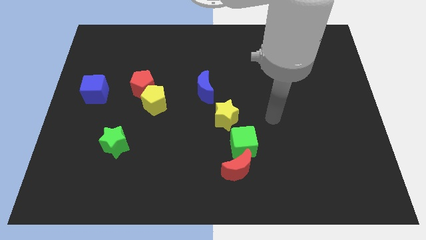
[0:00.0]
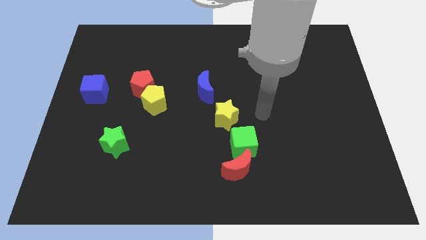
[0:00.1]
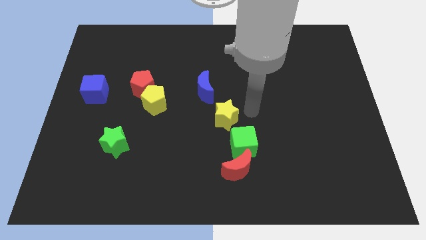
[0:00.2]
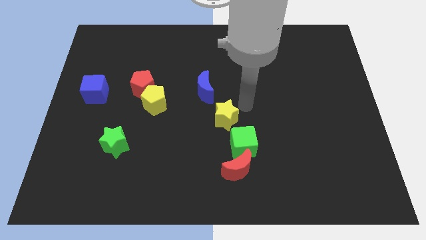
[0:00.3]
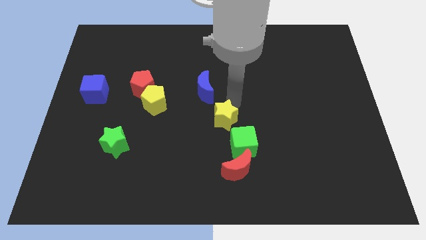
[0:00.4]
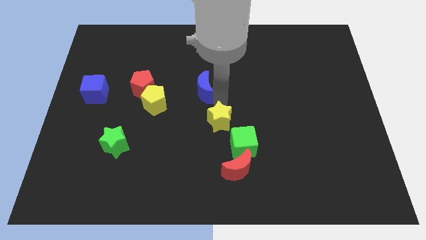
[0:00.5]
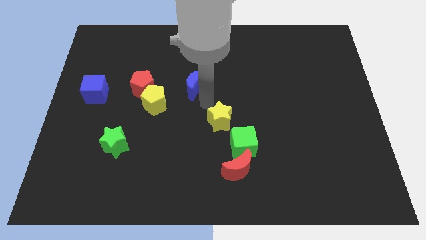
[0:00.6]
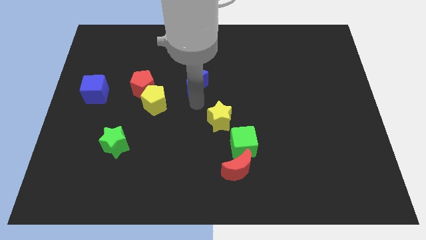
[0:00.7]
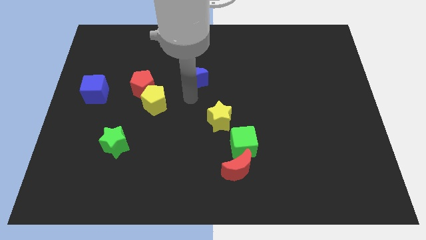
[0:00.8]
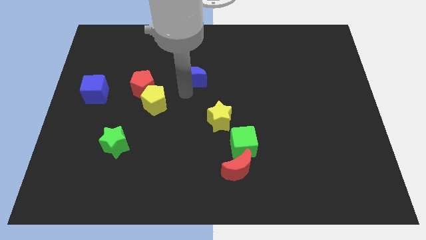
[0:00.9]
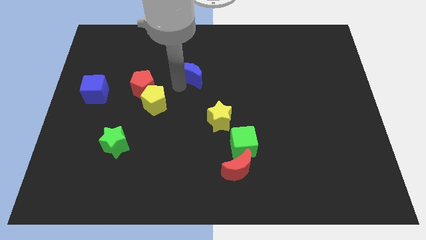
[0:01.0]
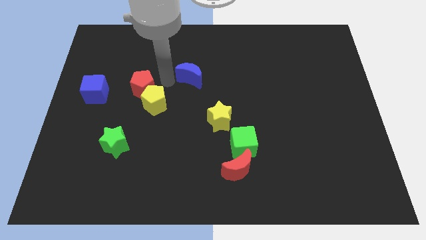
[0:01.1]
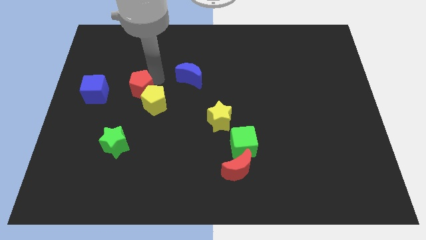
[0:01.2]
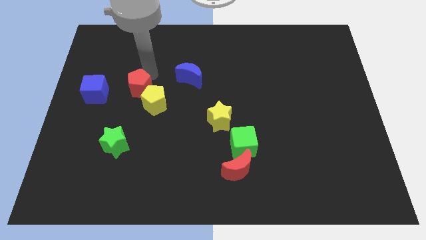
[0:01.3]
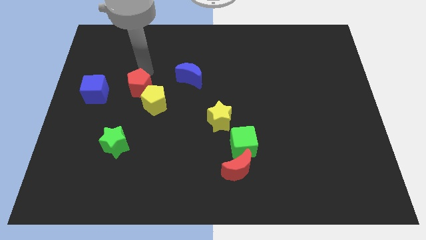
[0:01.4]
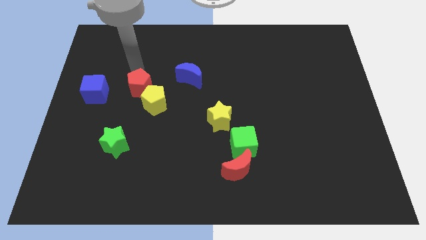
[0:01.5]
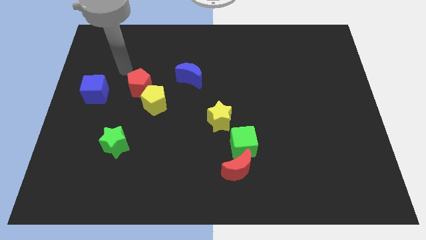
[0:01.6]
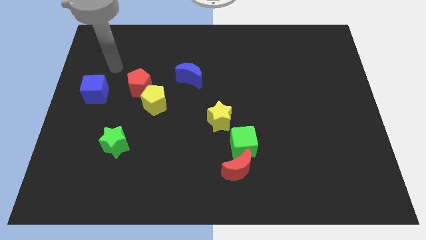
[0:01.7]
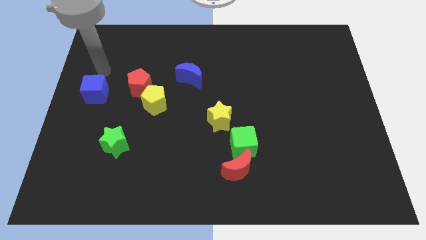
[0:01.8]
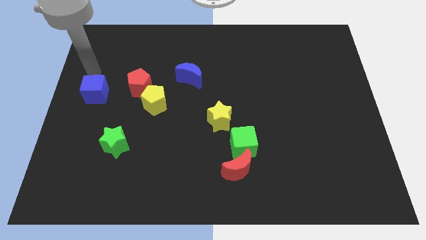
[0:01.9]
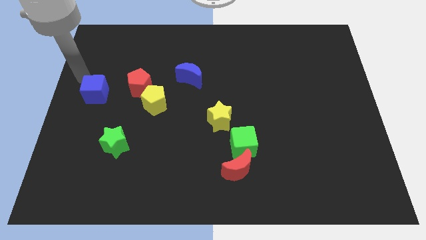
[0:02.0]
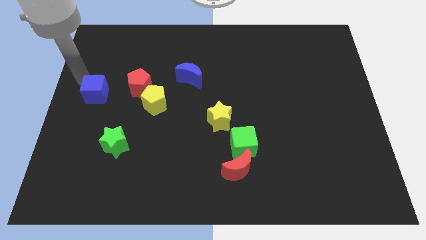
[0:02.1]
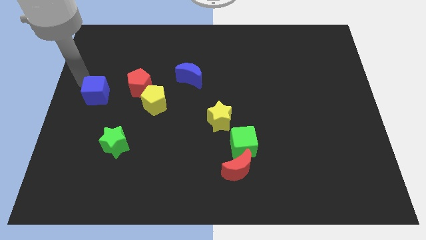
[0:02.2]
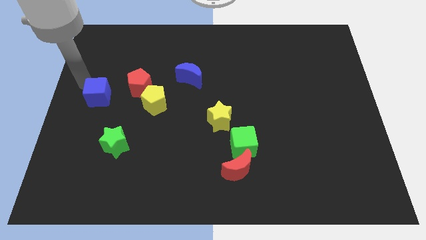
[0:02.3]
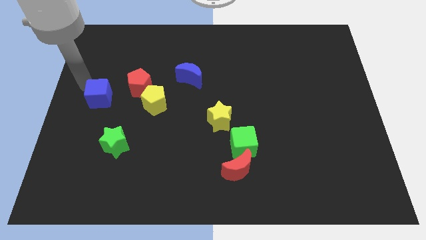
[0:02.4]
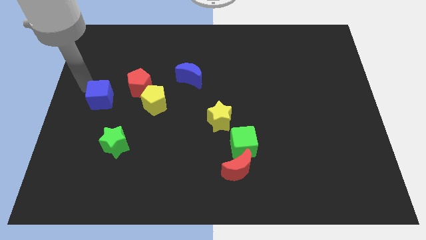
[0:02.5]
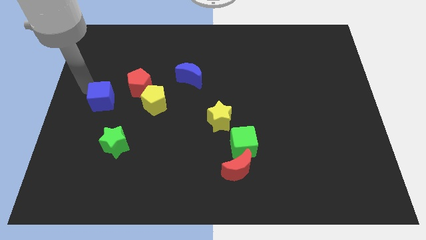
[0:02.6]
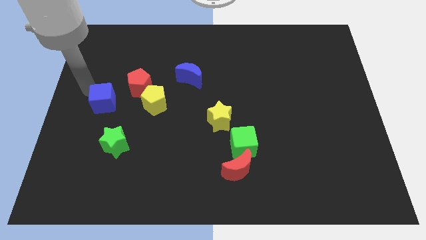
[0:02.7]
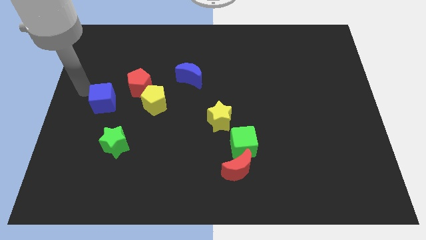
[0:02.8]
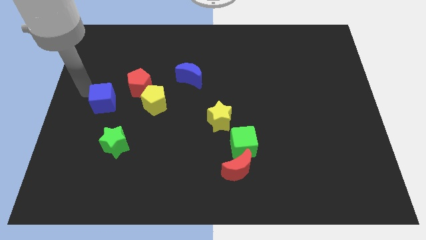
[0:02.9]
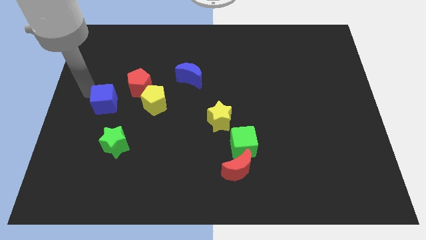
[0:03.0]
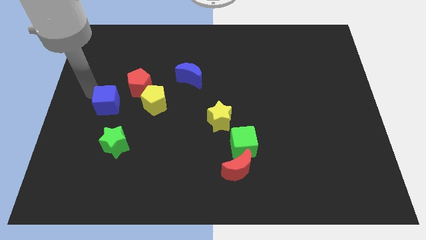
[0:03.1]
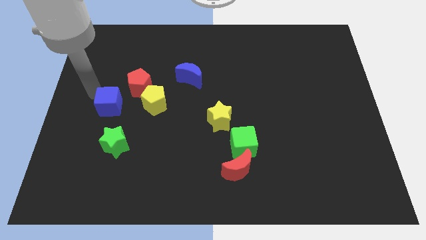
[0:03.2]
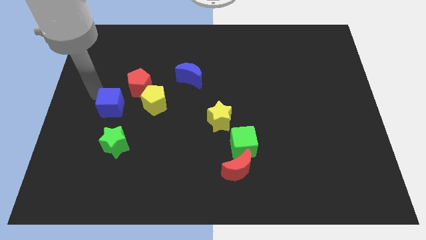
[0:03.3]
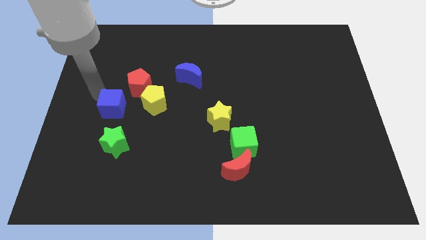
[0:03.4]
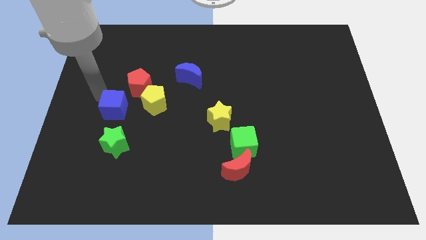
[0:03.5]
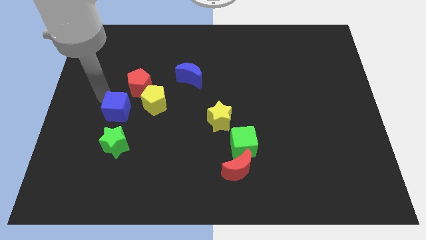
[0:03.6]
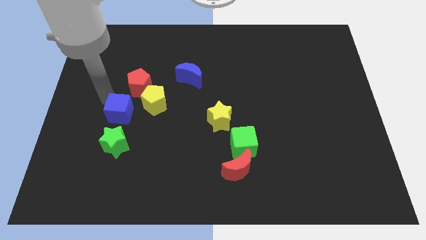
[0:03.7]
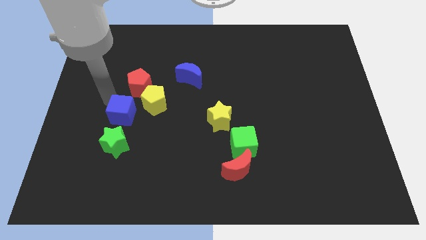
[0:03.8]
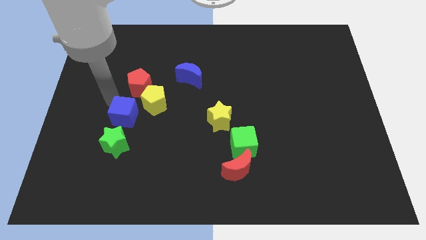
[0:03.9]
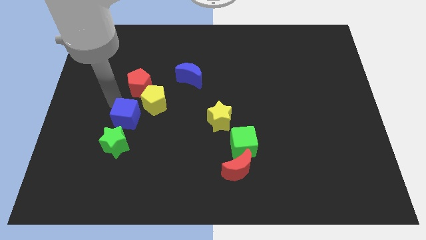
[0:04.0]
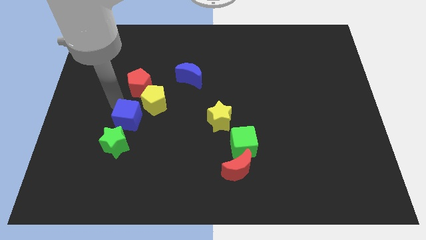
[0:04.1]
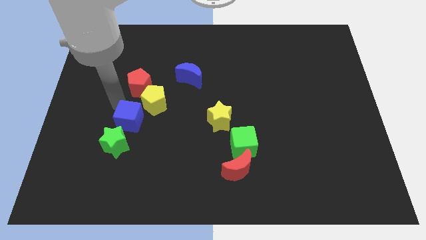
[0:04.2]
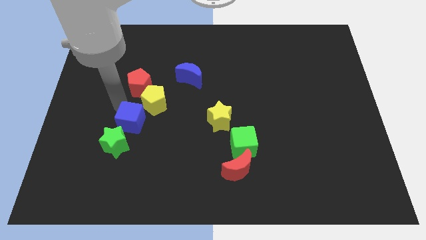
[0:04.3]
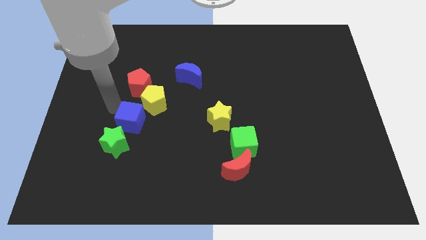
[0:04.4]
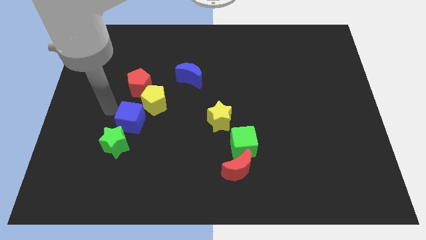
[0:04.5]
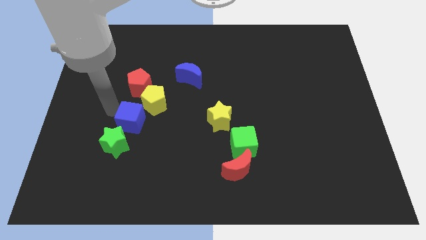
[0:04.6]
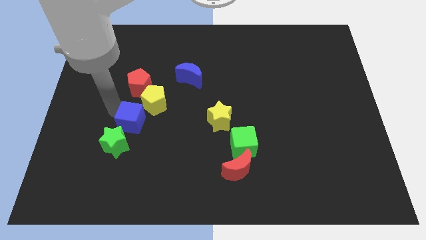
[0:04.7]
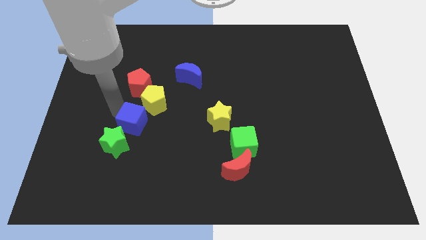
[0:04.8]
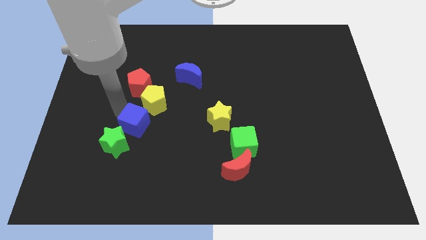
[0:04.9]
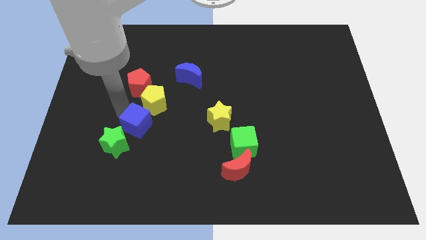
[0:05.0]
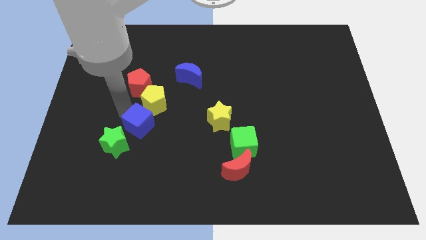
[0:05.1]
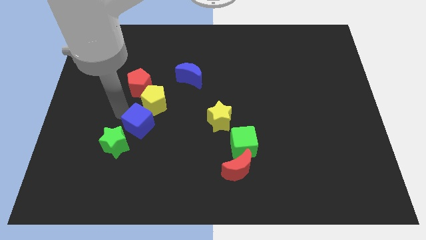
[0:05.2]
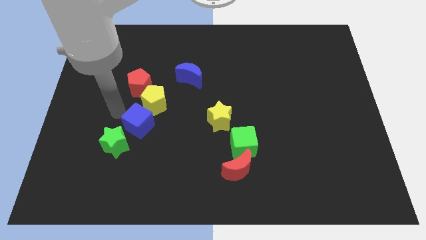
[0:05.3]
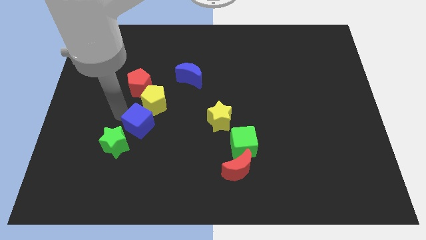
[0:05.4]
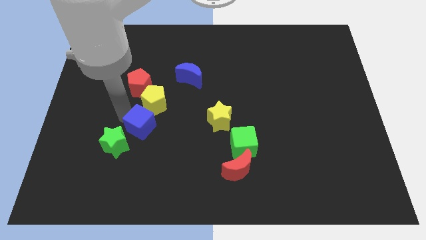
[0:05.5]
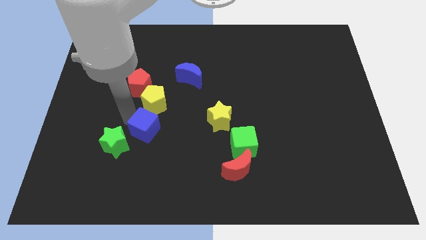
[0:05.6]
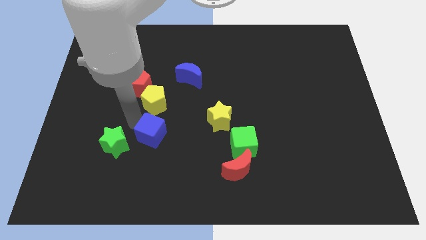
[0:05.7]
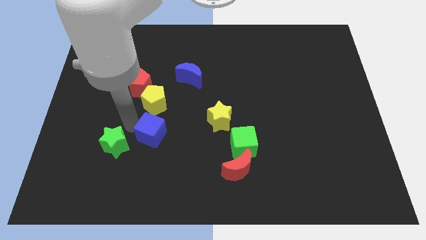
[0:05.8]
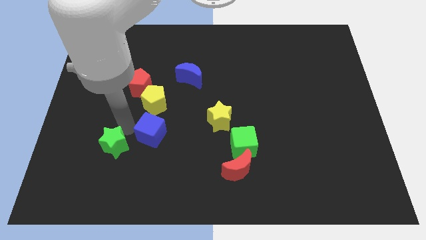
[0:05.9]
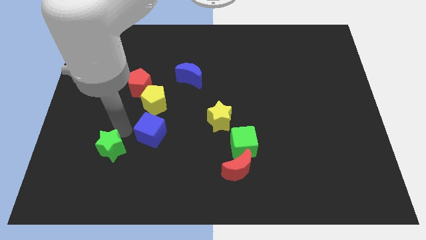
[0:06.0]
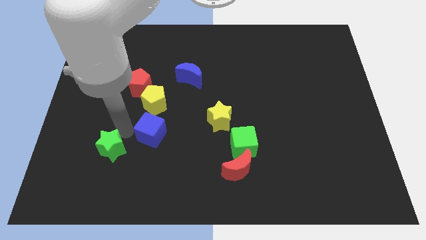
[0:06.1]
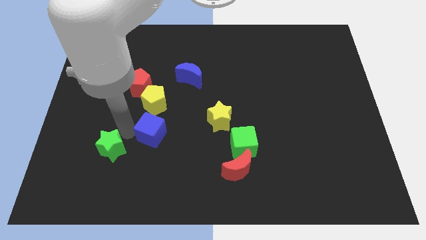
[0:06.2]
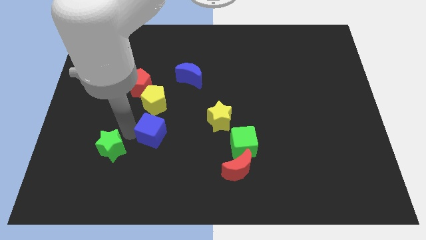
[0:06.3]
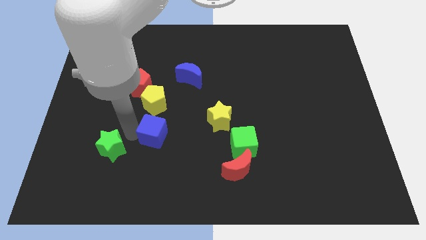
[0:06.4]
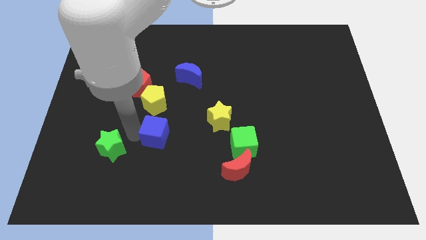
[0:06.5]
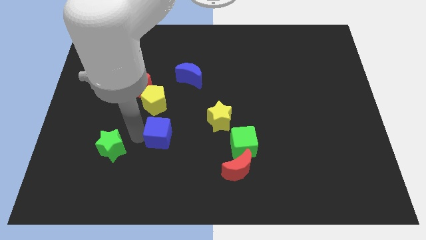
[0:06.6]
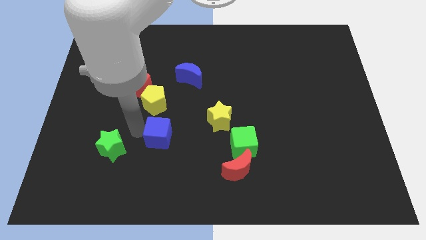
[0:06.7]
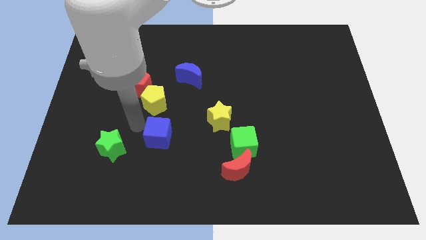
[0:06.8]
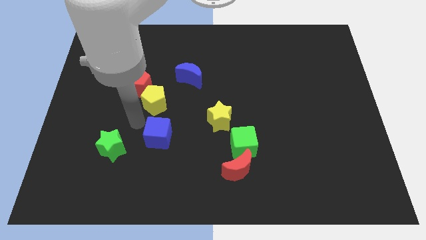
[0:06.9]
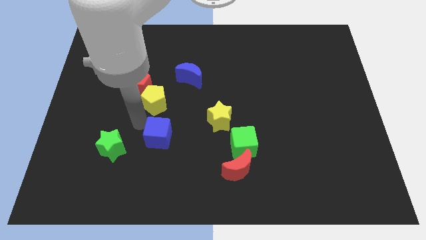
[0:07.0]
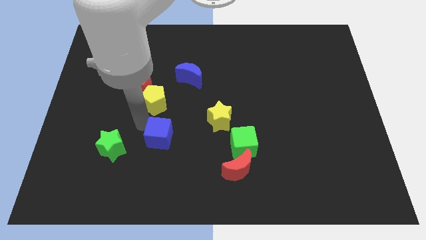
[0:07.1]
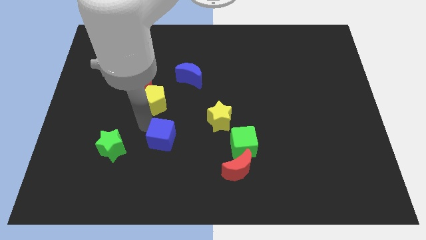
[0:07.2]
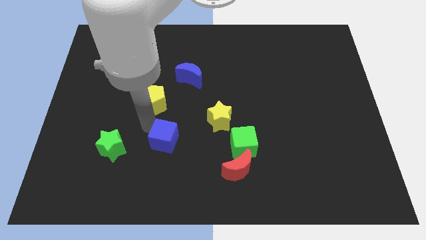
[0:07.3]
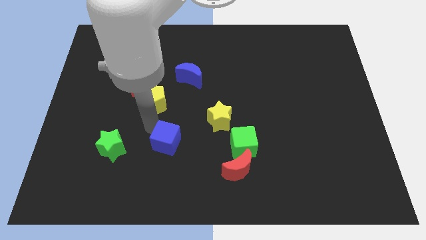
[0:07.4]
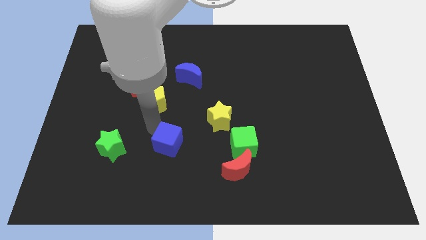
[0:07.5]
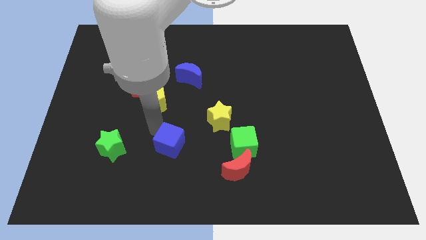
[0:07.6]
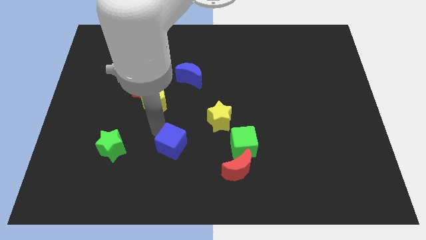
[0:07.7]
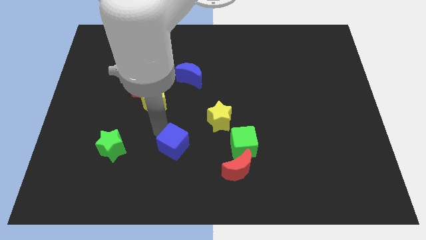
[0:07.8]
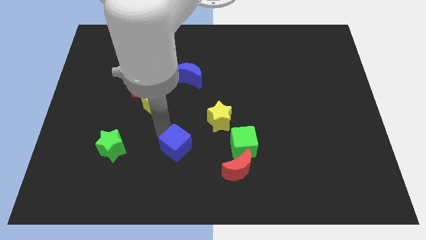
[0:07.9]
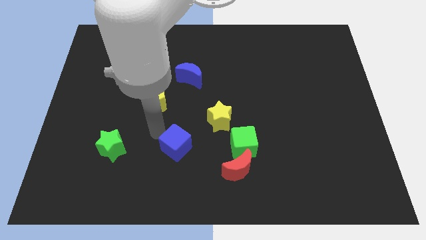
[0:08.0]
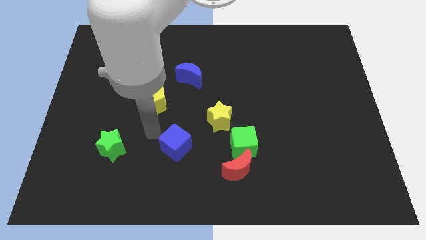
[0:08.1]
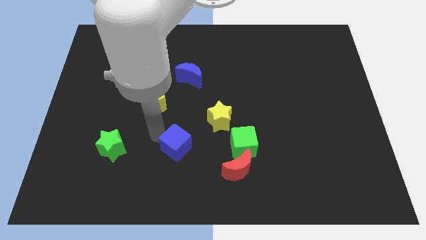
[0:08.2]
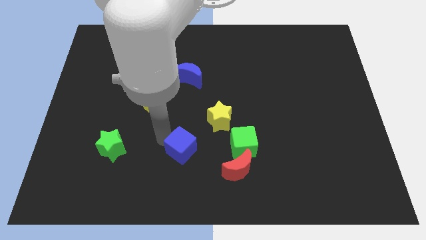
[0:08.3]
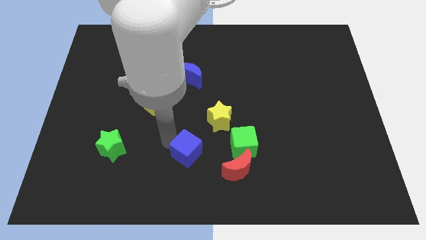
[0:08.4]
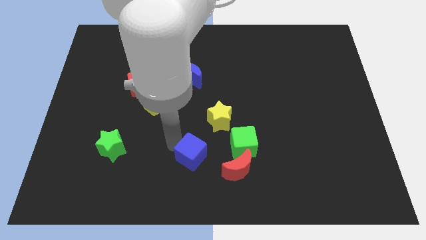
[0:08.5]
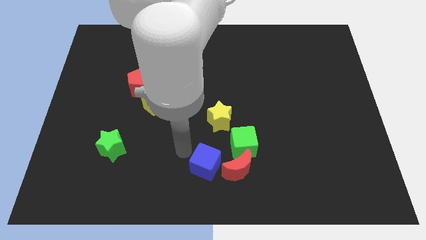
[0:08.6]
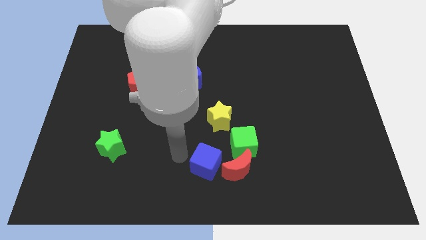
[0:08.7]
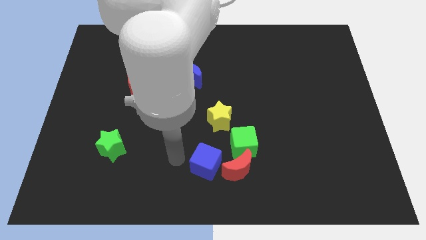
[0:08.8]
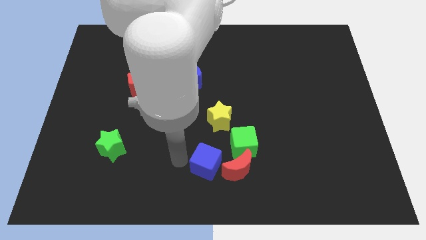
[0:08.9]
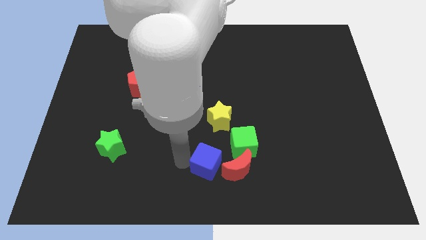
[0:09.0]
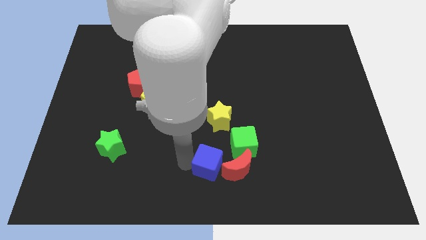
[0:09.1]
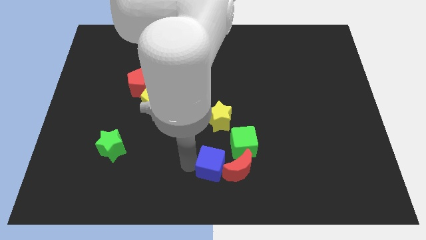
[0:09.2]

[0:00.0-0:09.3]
slide the blue cube to the red moon
